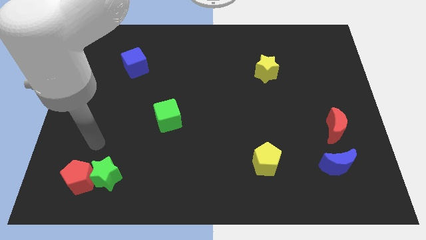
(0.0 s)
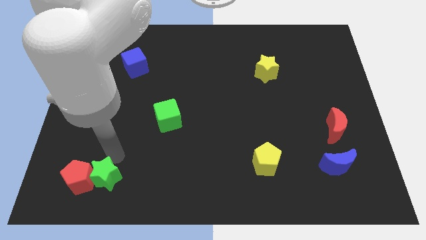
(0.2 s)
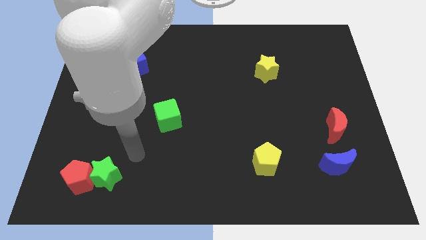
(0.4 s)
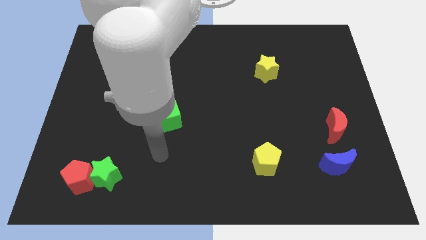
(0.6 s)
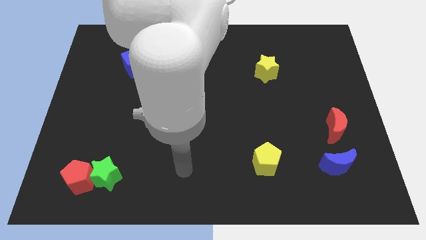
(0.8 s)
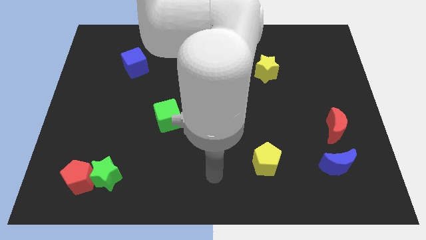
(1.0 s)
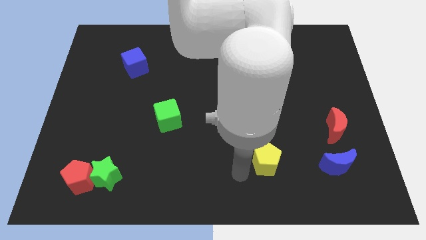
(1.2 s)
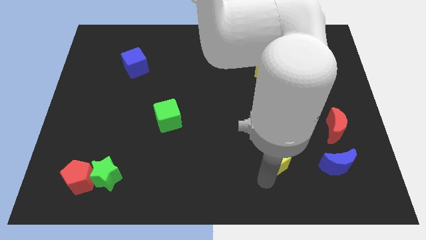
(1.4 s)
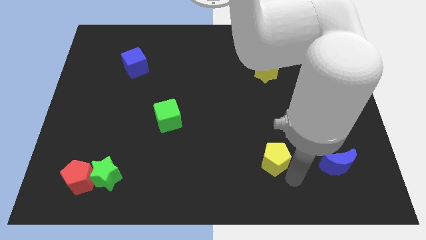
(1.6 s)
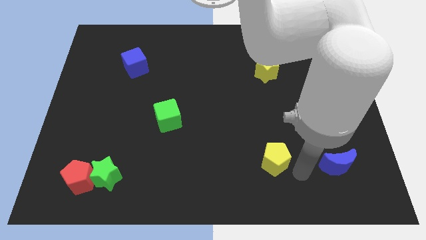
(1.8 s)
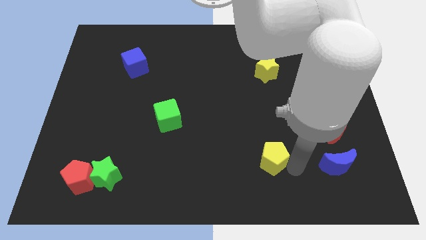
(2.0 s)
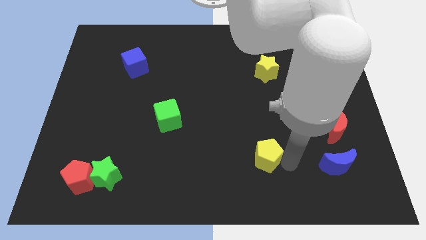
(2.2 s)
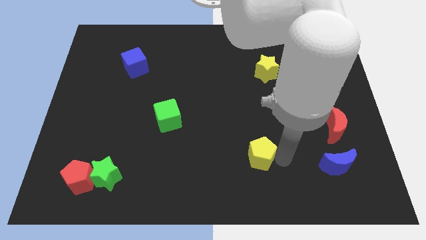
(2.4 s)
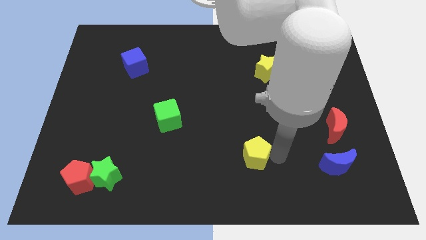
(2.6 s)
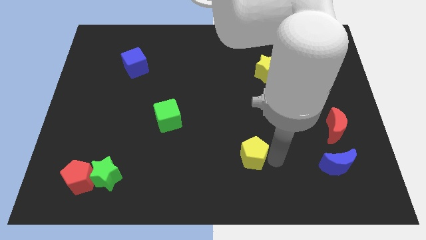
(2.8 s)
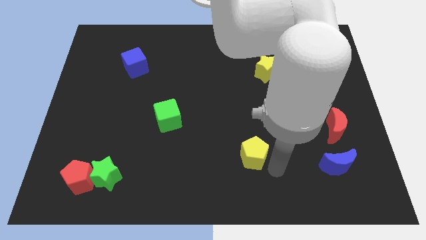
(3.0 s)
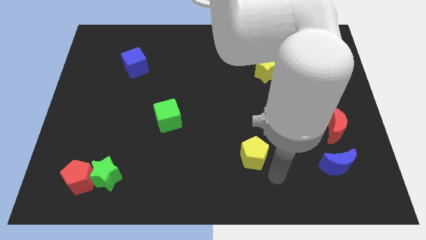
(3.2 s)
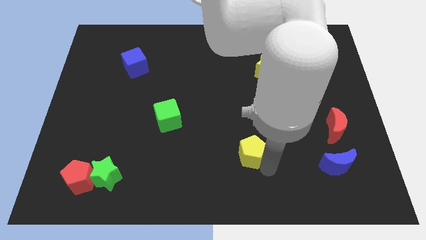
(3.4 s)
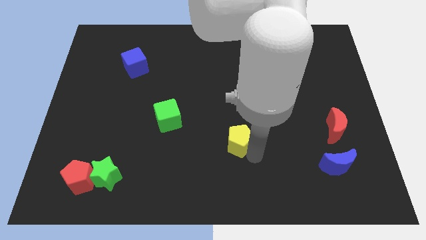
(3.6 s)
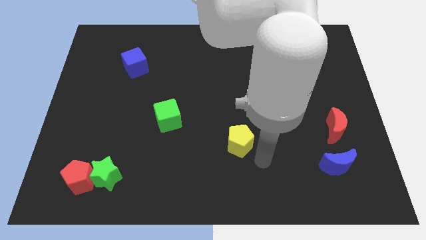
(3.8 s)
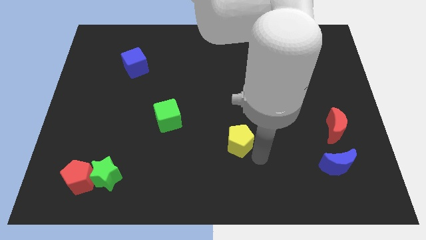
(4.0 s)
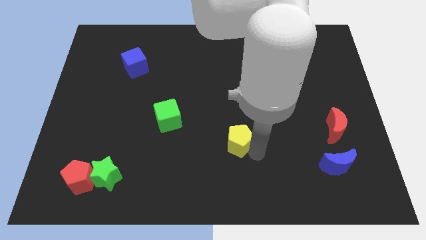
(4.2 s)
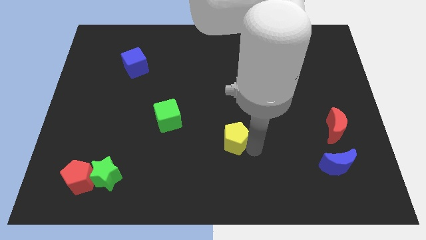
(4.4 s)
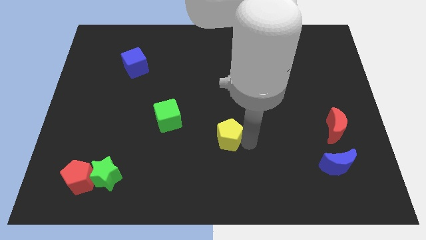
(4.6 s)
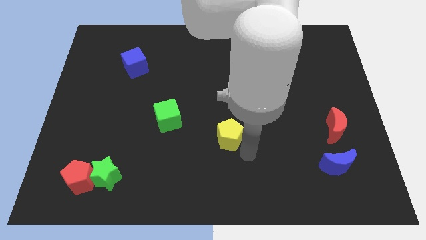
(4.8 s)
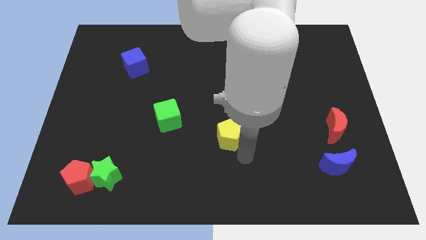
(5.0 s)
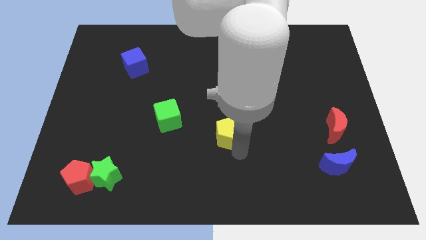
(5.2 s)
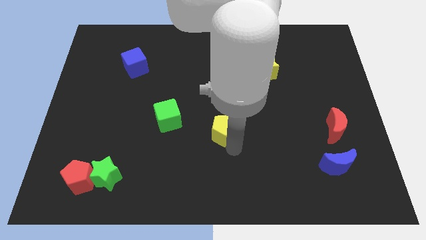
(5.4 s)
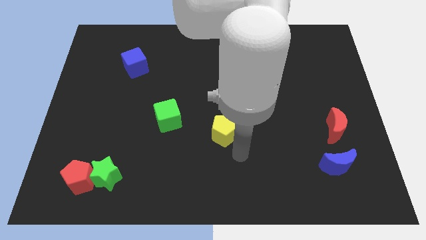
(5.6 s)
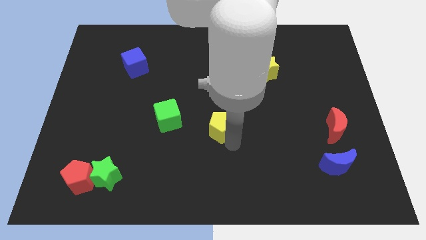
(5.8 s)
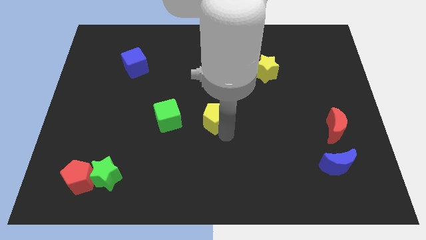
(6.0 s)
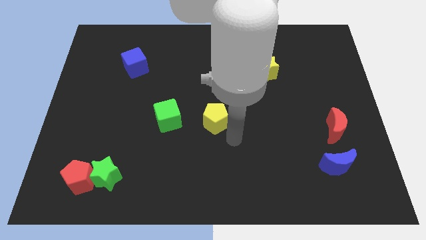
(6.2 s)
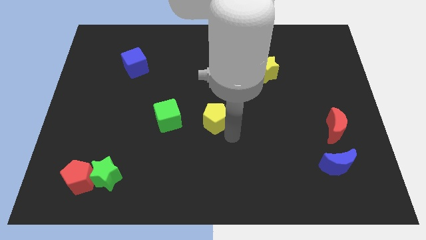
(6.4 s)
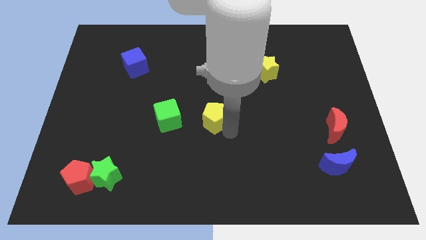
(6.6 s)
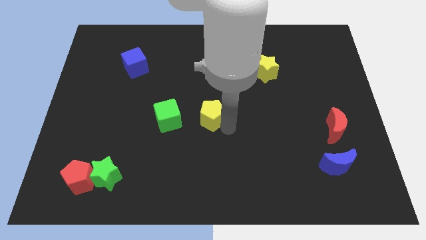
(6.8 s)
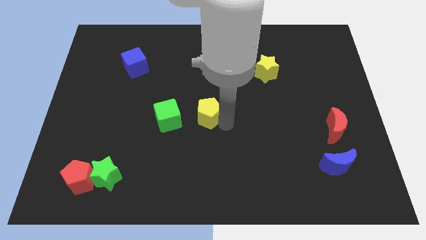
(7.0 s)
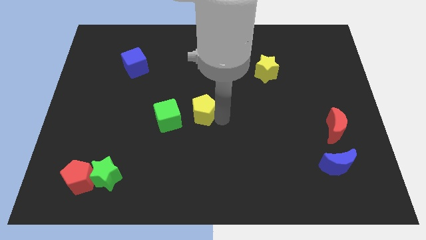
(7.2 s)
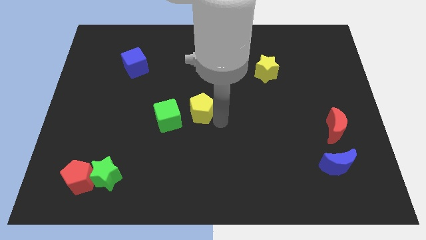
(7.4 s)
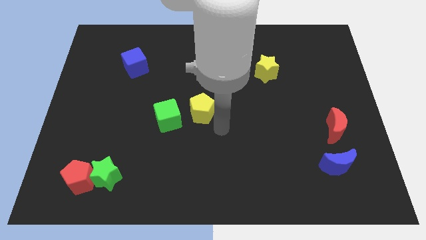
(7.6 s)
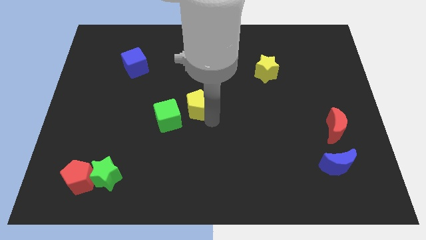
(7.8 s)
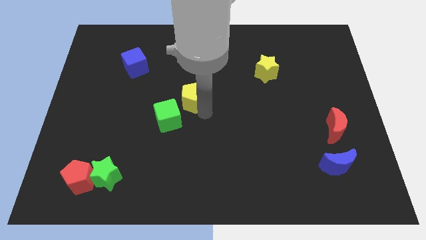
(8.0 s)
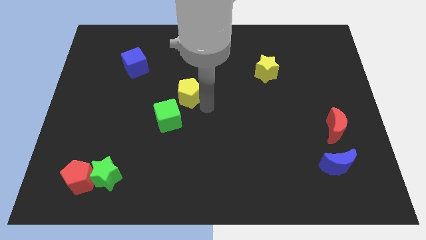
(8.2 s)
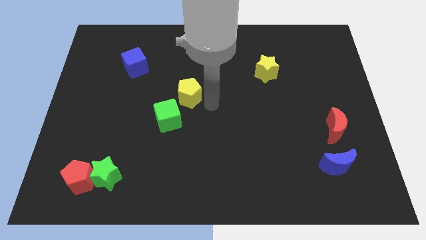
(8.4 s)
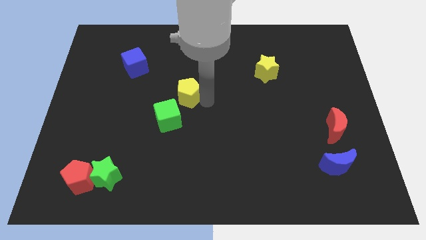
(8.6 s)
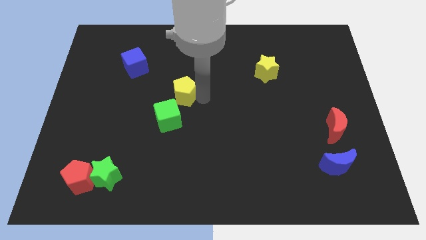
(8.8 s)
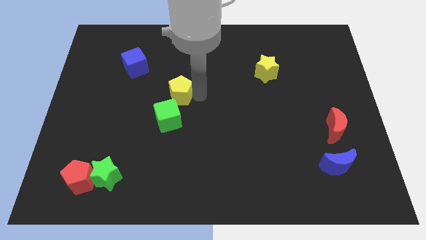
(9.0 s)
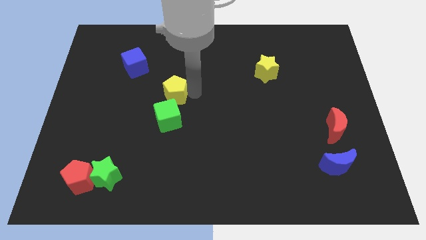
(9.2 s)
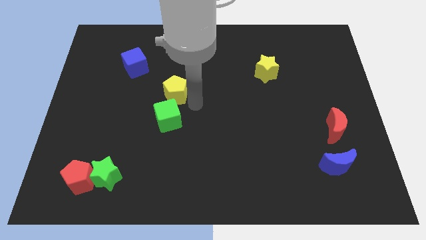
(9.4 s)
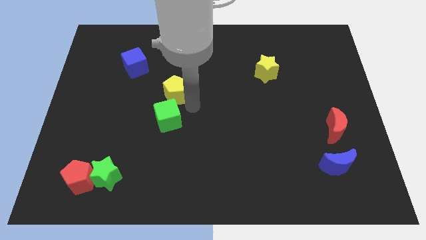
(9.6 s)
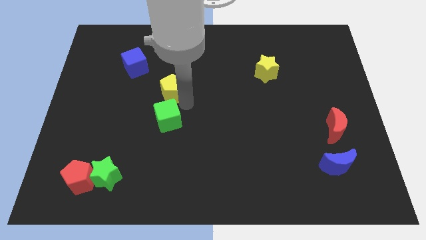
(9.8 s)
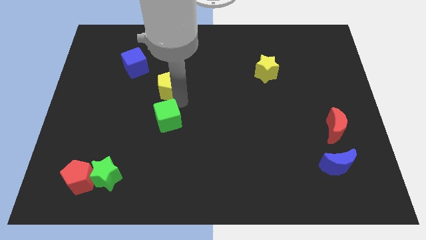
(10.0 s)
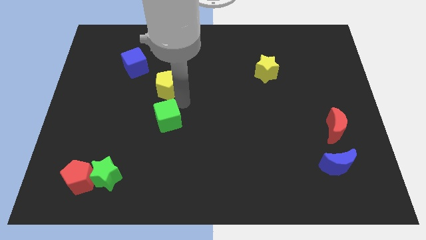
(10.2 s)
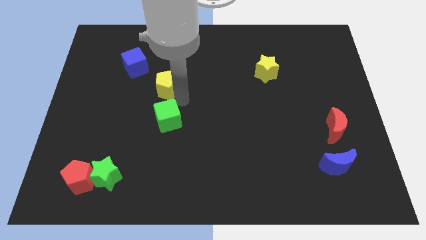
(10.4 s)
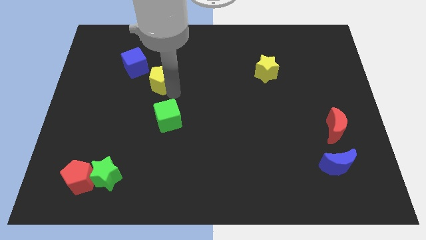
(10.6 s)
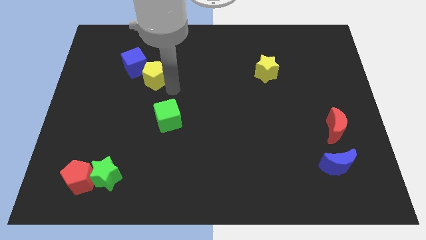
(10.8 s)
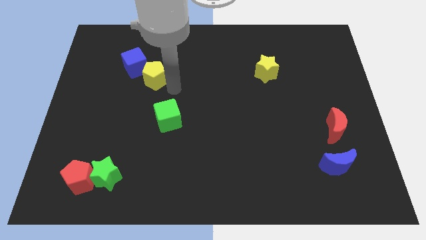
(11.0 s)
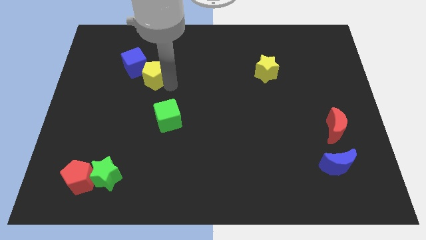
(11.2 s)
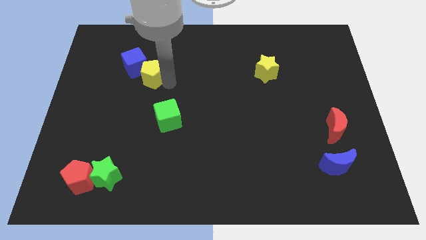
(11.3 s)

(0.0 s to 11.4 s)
put the yellow pentagon towards the blue cube

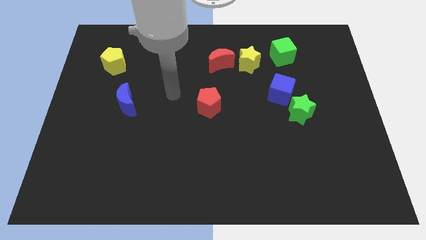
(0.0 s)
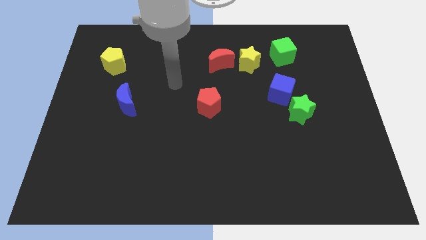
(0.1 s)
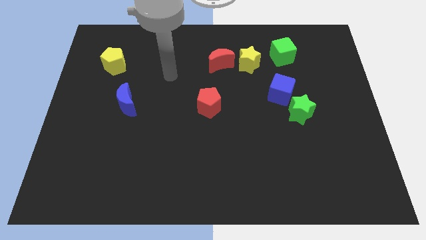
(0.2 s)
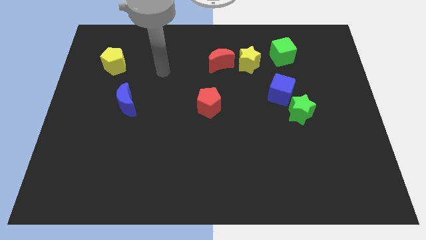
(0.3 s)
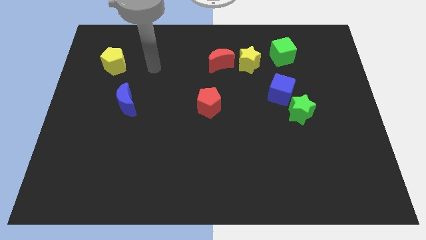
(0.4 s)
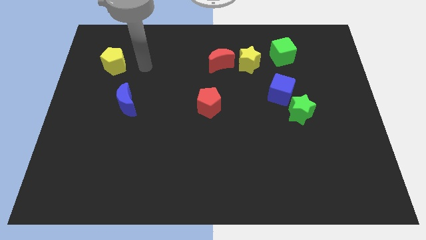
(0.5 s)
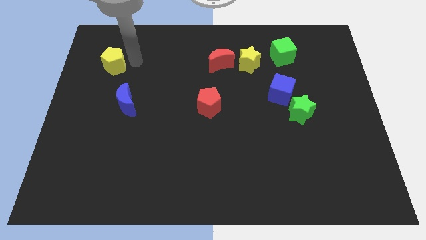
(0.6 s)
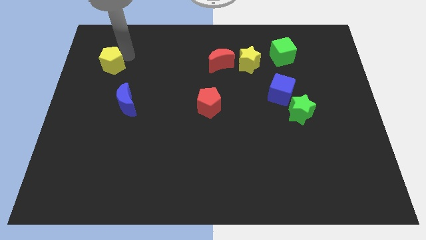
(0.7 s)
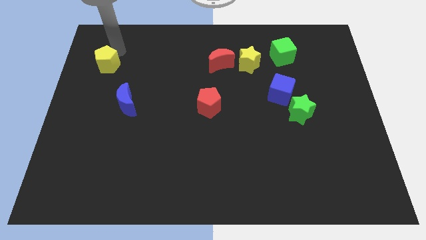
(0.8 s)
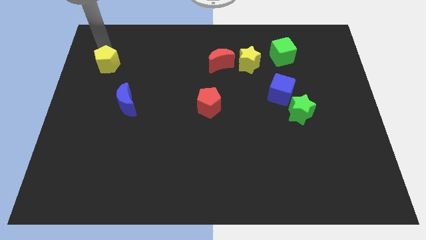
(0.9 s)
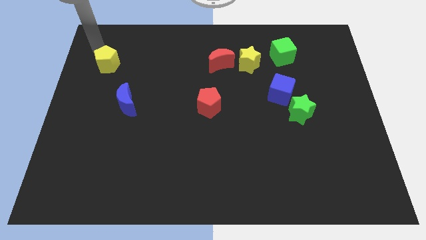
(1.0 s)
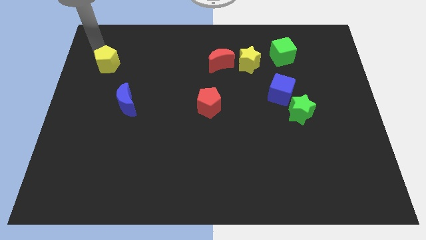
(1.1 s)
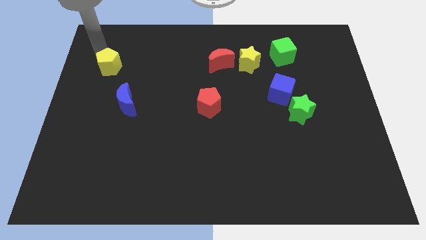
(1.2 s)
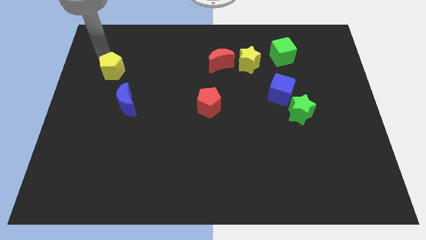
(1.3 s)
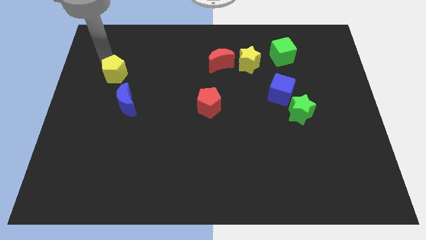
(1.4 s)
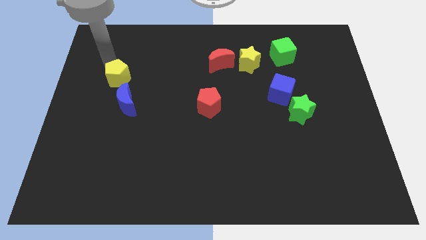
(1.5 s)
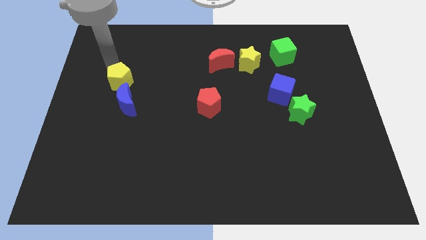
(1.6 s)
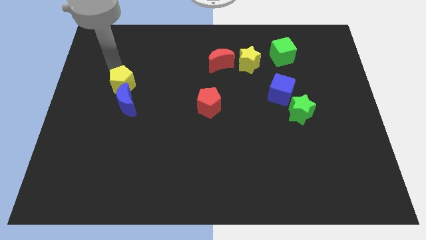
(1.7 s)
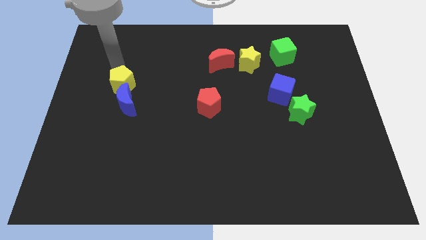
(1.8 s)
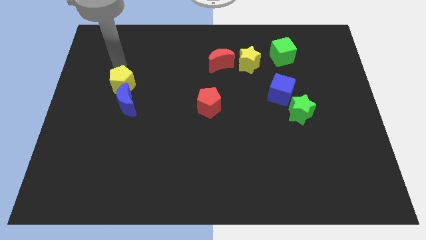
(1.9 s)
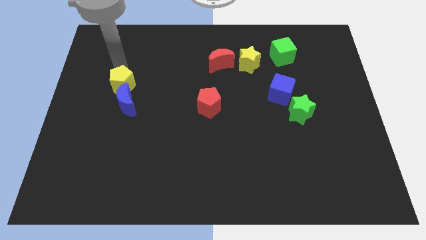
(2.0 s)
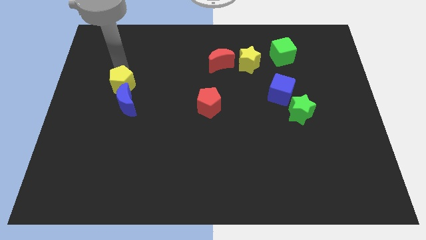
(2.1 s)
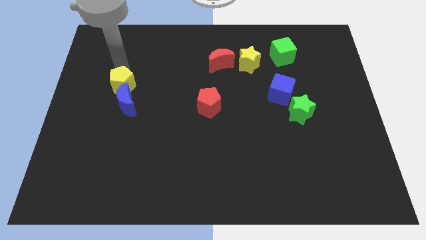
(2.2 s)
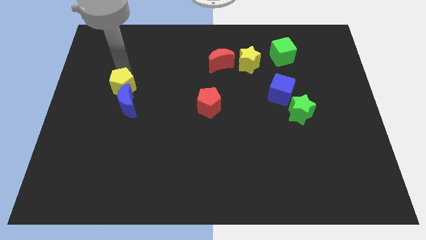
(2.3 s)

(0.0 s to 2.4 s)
move the yellow pentagon to the blue moon
